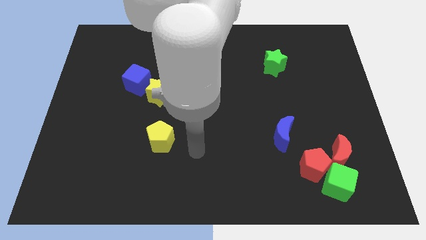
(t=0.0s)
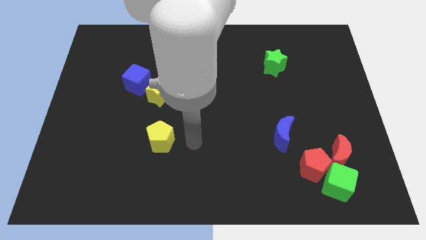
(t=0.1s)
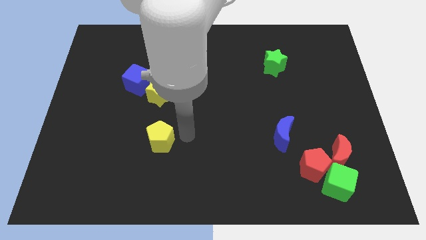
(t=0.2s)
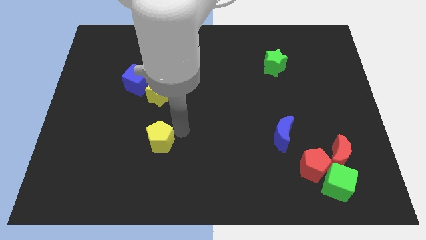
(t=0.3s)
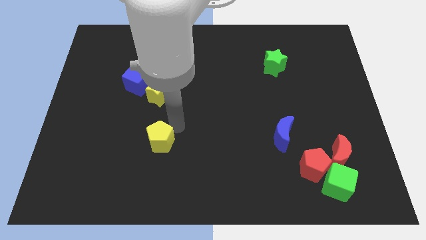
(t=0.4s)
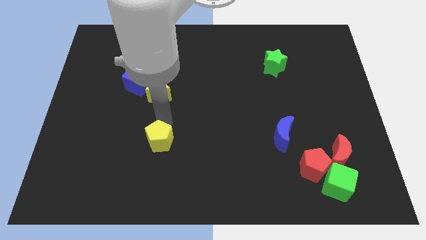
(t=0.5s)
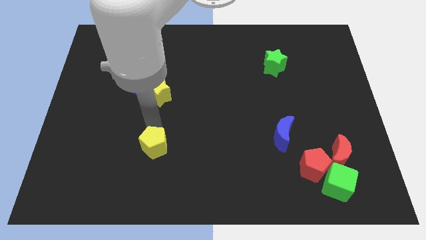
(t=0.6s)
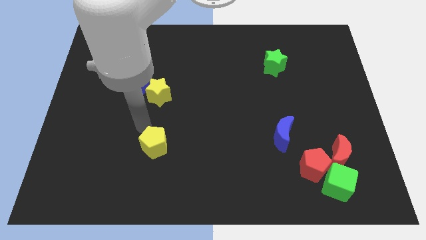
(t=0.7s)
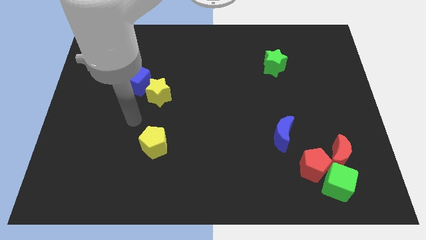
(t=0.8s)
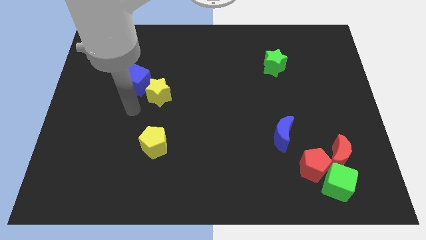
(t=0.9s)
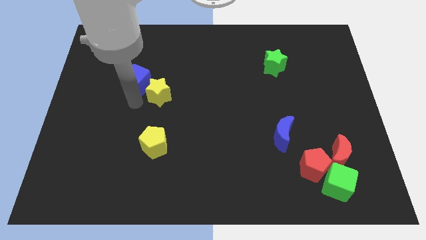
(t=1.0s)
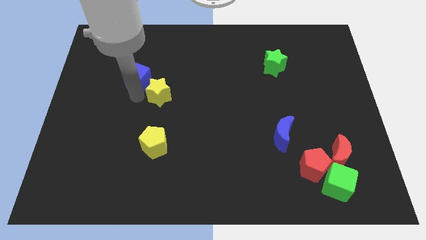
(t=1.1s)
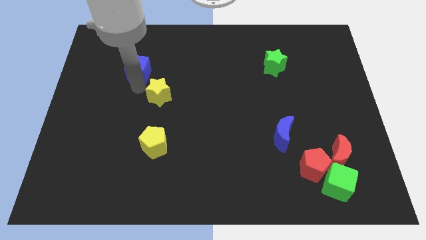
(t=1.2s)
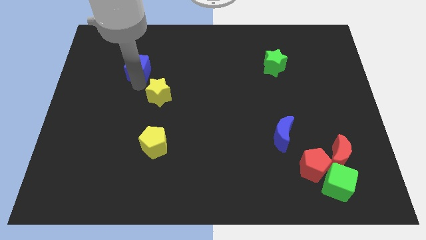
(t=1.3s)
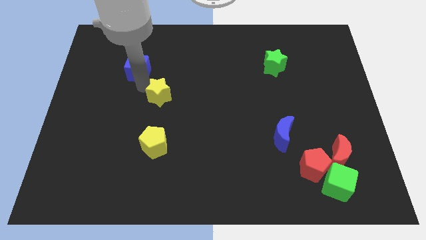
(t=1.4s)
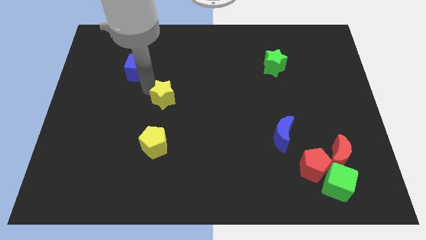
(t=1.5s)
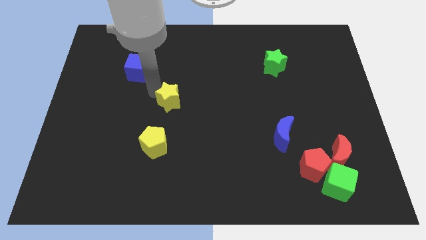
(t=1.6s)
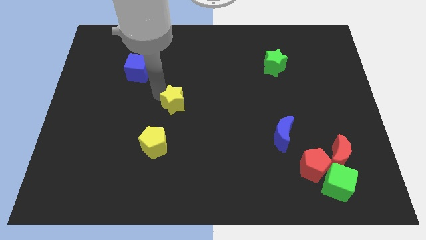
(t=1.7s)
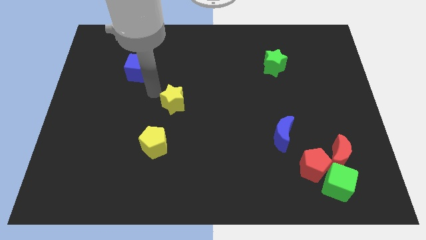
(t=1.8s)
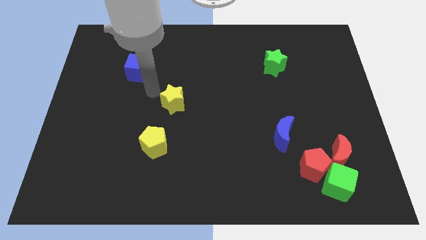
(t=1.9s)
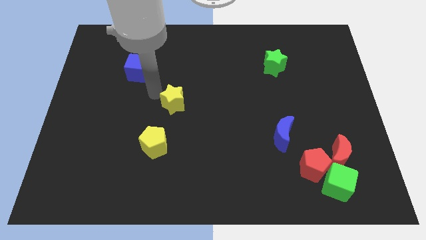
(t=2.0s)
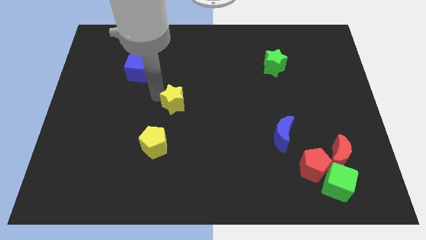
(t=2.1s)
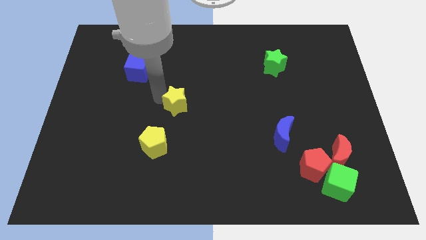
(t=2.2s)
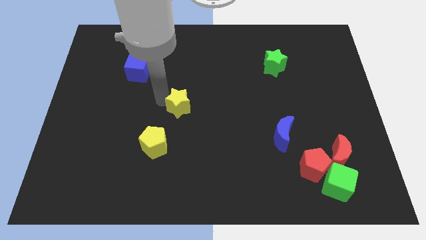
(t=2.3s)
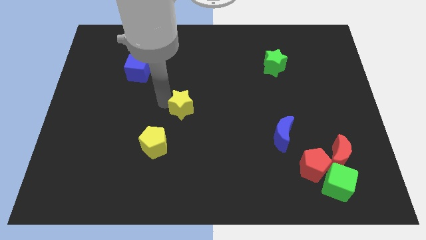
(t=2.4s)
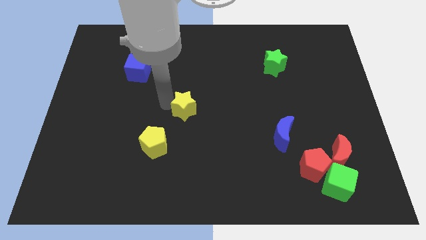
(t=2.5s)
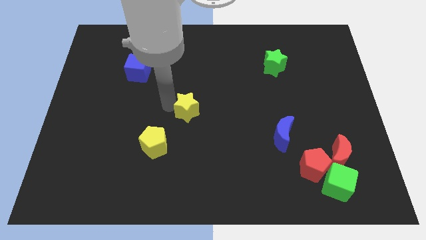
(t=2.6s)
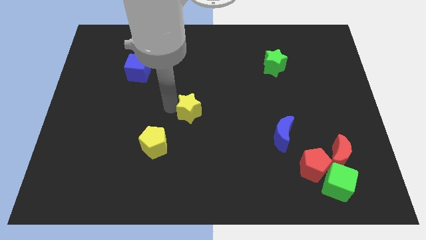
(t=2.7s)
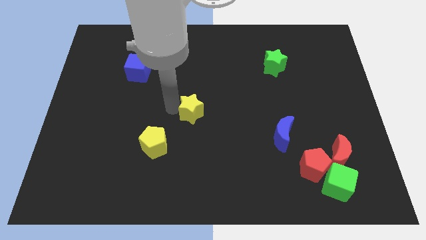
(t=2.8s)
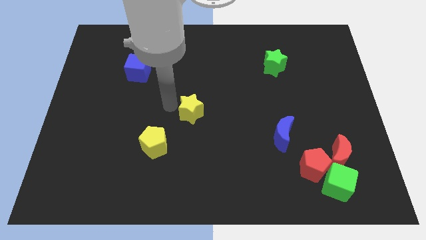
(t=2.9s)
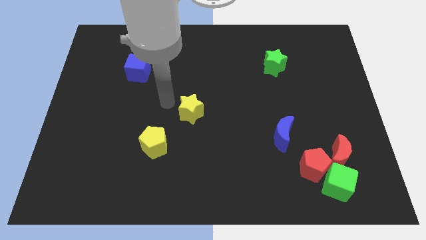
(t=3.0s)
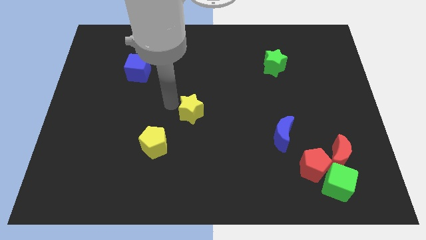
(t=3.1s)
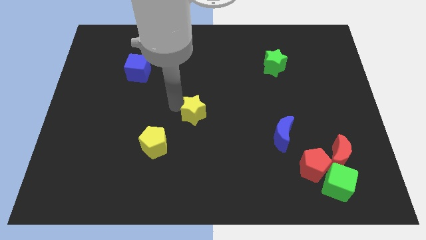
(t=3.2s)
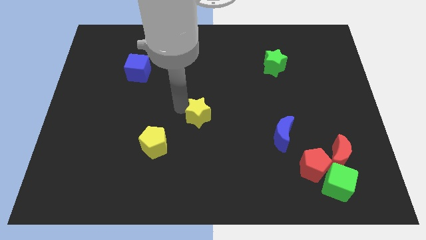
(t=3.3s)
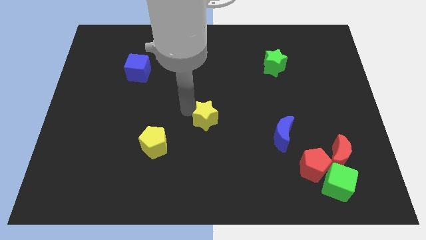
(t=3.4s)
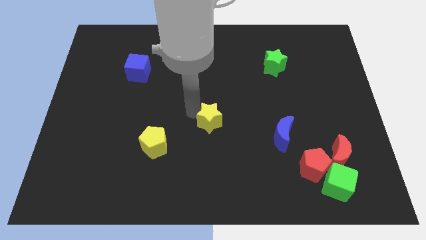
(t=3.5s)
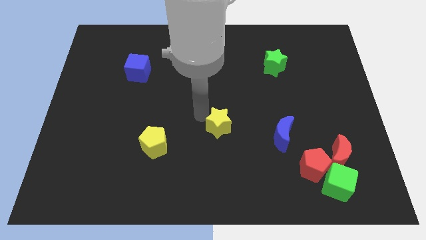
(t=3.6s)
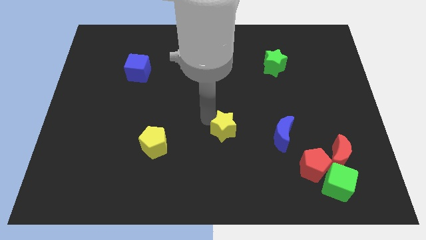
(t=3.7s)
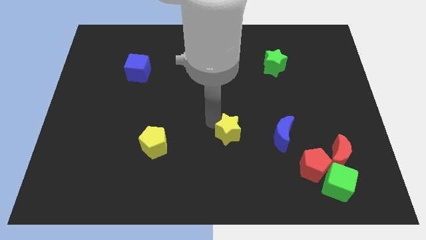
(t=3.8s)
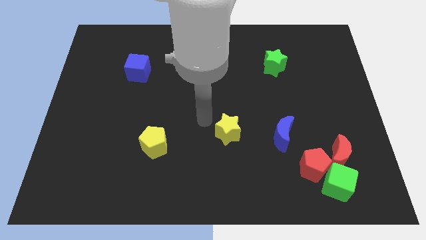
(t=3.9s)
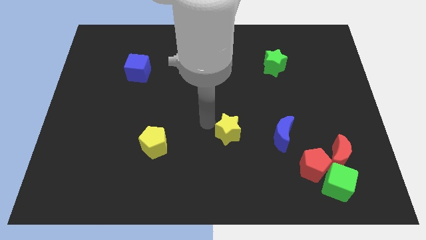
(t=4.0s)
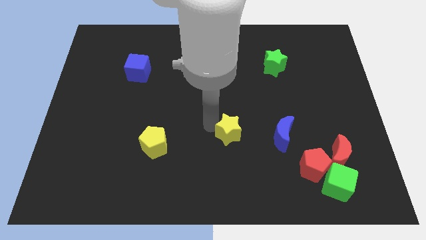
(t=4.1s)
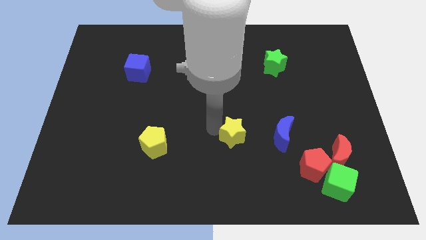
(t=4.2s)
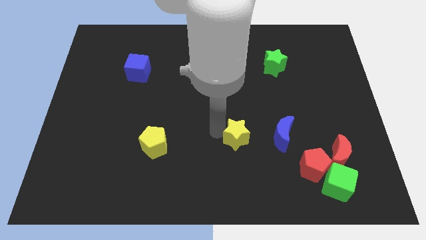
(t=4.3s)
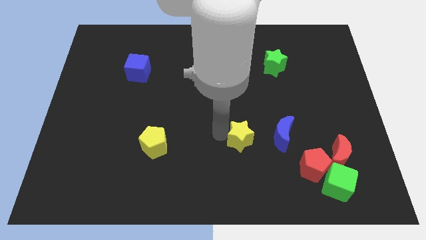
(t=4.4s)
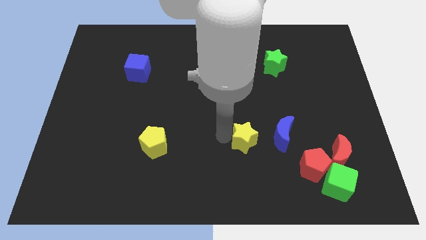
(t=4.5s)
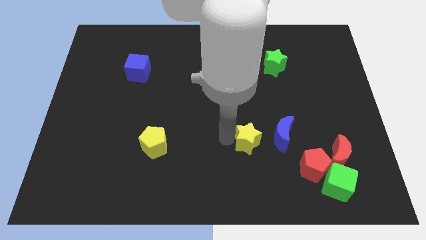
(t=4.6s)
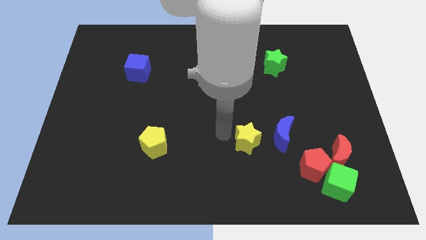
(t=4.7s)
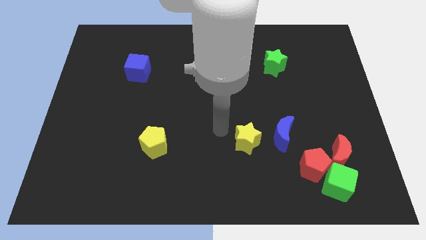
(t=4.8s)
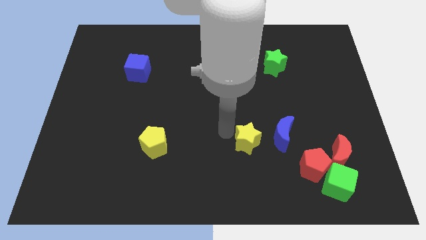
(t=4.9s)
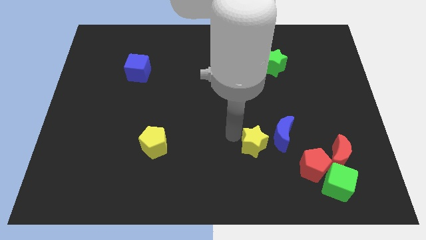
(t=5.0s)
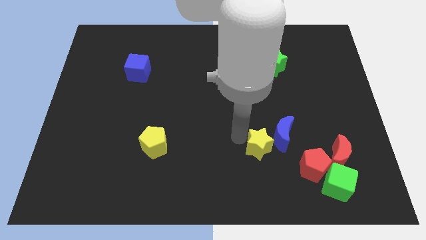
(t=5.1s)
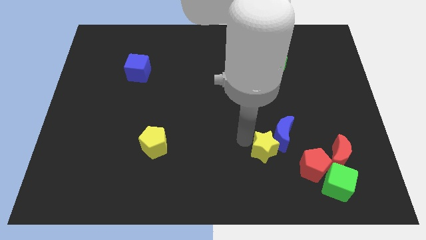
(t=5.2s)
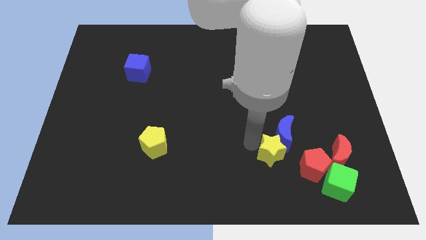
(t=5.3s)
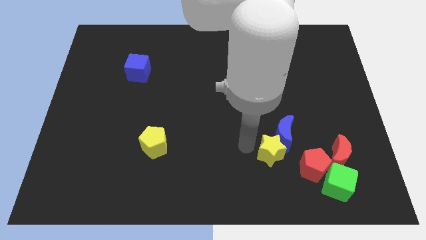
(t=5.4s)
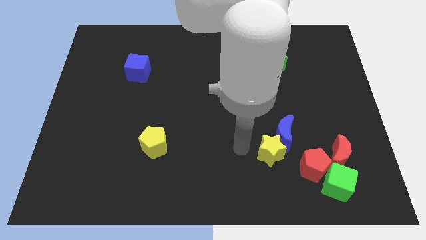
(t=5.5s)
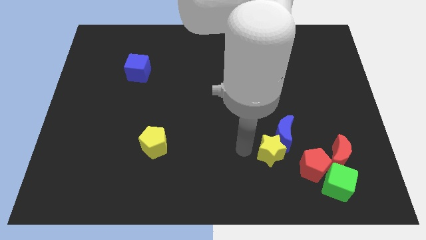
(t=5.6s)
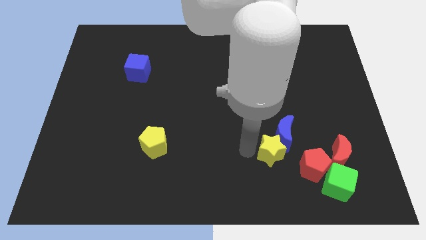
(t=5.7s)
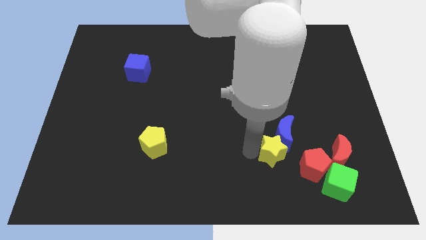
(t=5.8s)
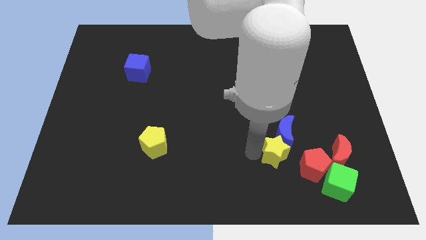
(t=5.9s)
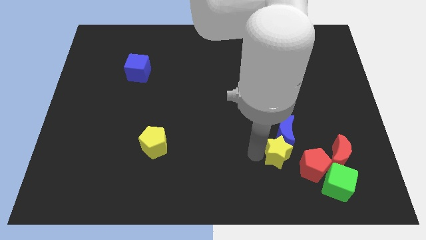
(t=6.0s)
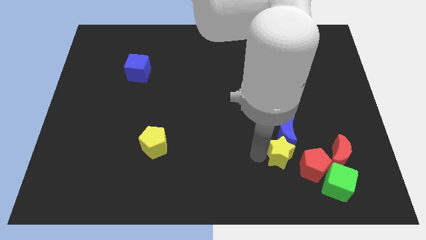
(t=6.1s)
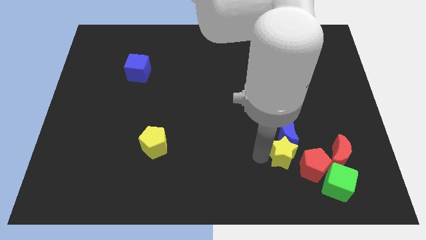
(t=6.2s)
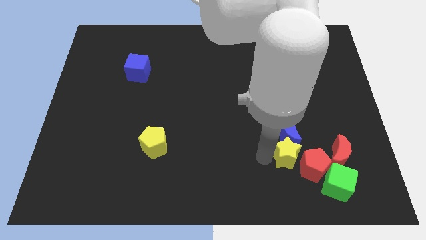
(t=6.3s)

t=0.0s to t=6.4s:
slide the yellow star close to the red pentagon

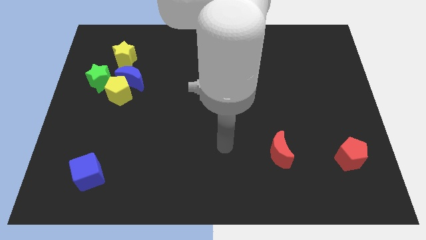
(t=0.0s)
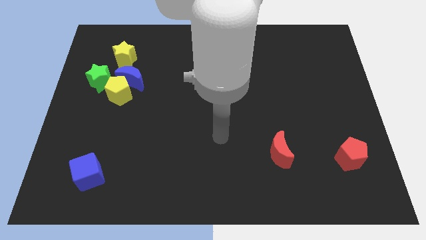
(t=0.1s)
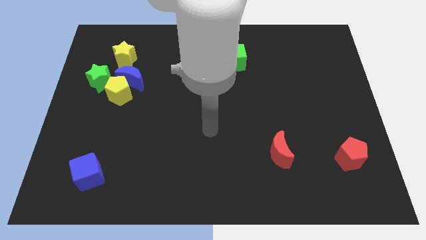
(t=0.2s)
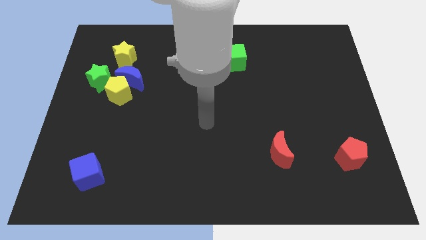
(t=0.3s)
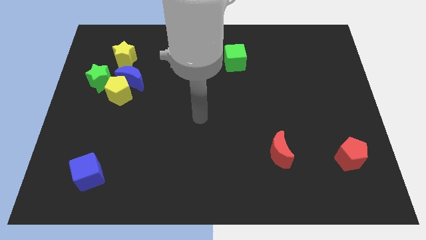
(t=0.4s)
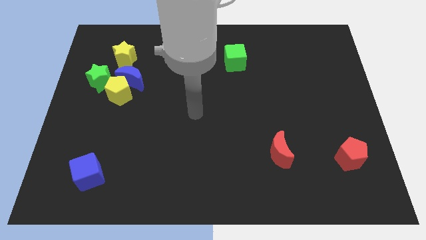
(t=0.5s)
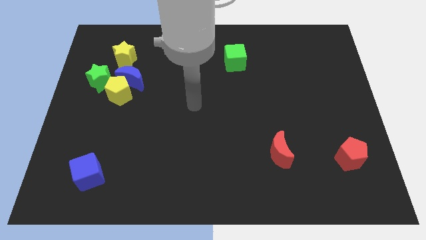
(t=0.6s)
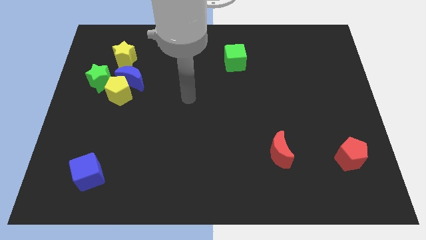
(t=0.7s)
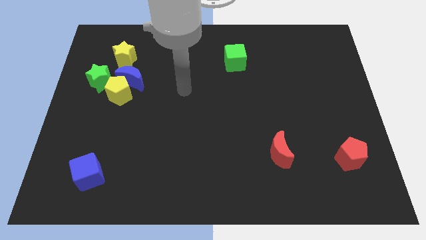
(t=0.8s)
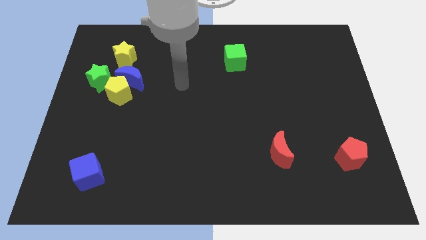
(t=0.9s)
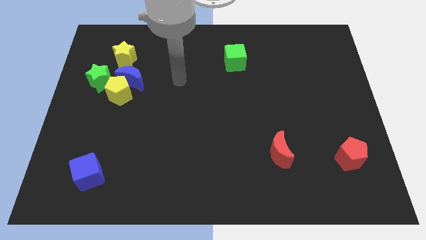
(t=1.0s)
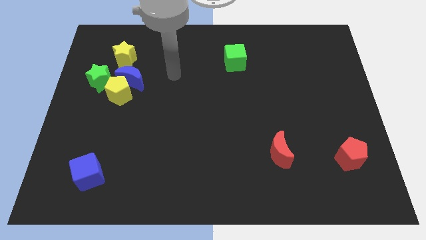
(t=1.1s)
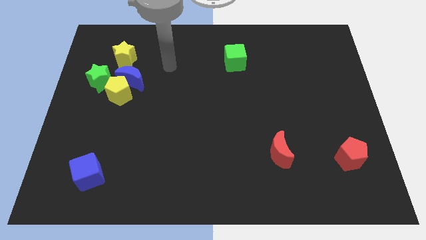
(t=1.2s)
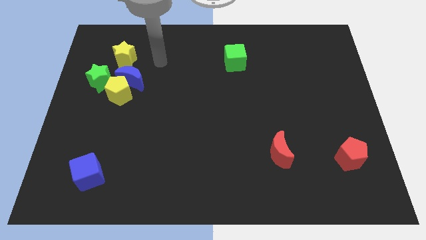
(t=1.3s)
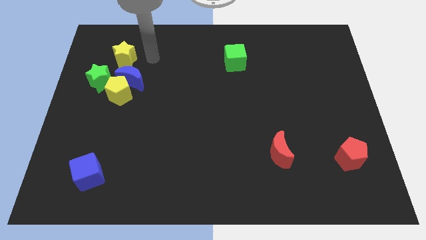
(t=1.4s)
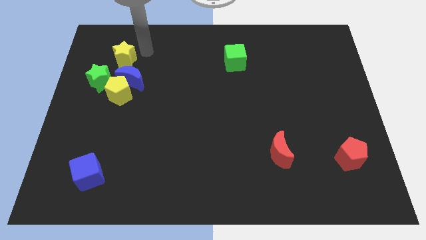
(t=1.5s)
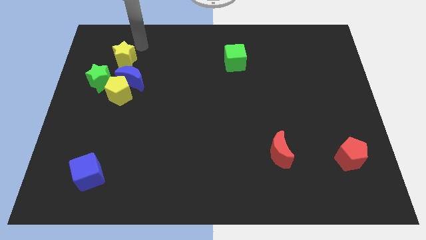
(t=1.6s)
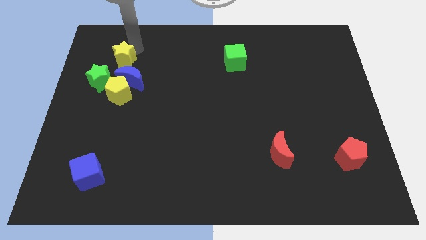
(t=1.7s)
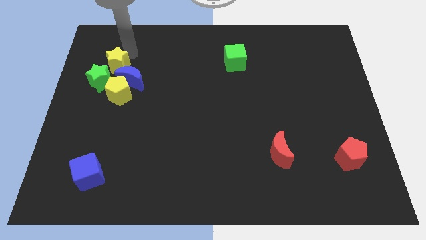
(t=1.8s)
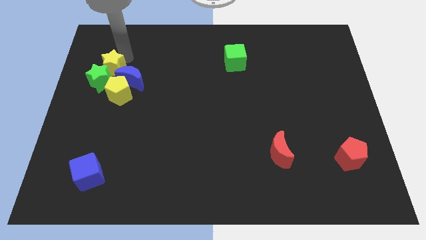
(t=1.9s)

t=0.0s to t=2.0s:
move the yellow star to the green star
